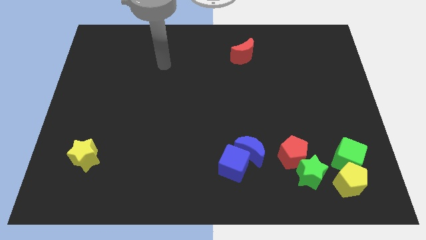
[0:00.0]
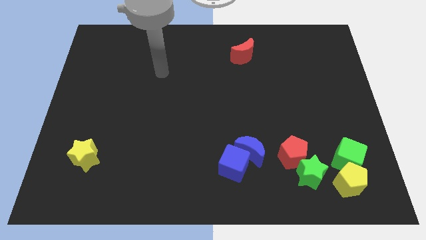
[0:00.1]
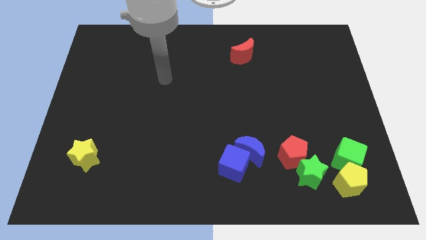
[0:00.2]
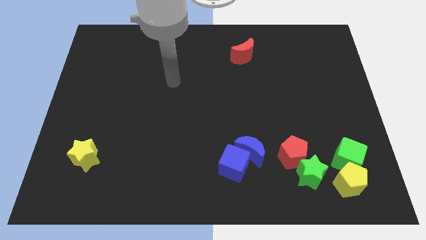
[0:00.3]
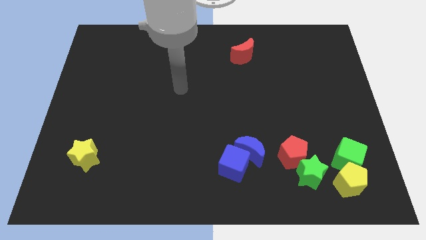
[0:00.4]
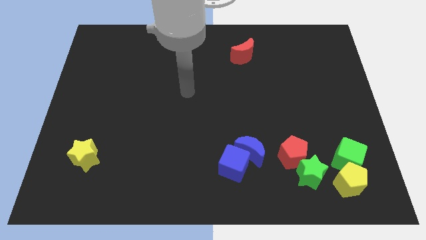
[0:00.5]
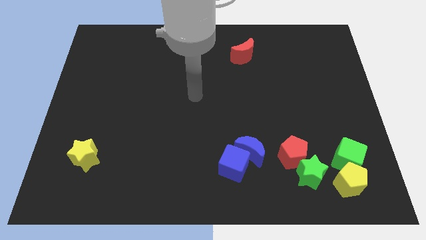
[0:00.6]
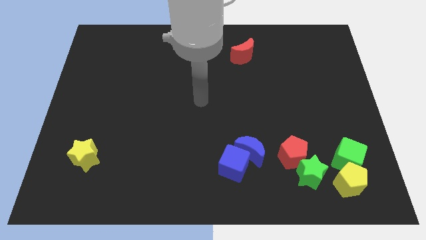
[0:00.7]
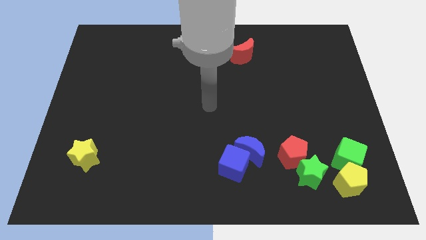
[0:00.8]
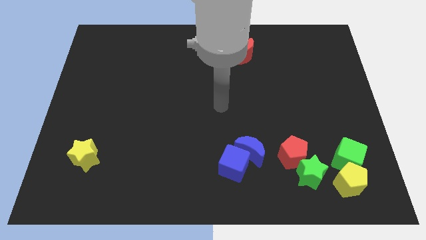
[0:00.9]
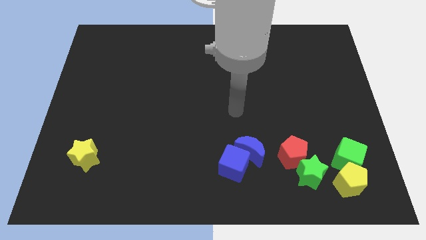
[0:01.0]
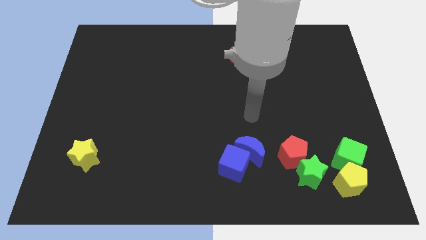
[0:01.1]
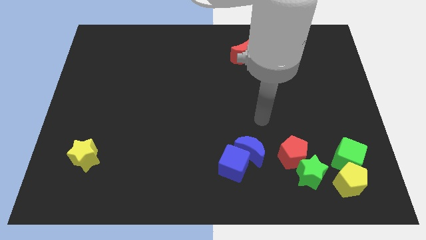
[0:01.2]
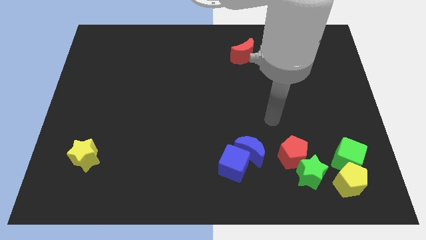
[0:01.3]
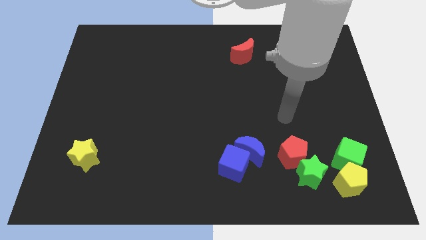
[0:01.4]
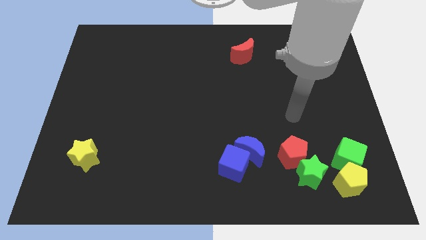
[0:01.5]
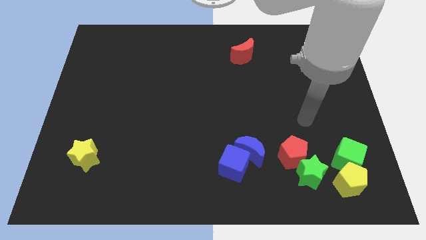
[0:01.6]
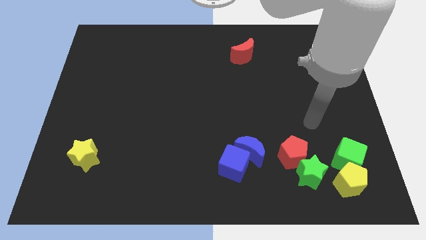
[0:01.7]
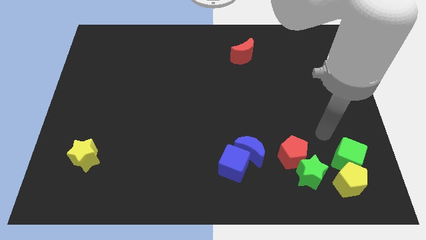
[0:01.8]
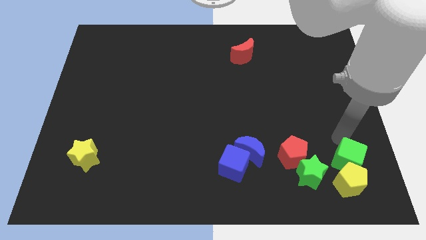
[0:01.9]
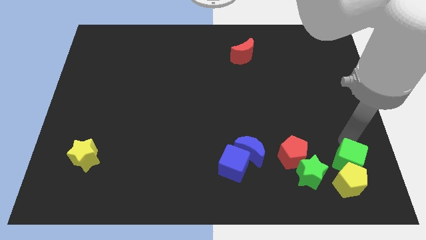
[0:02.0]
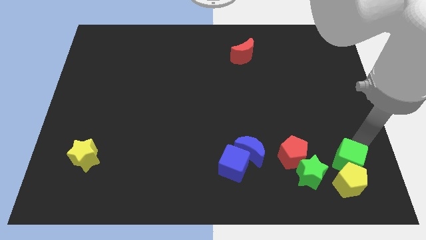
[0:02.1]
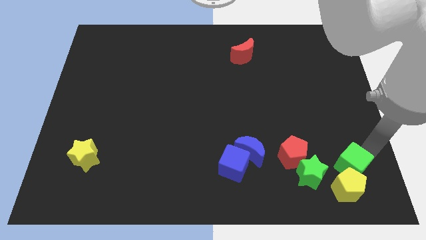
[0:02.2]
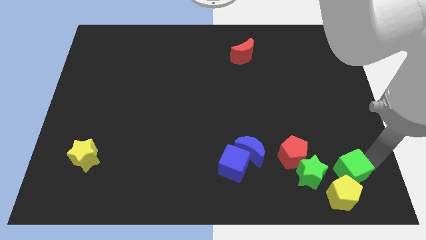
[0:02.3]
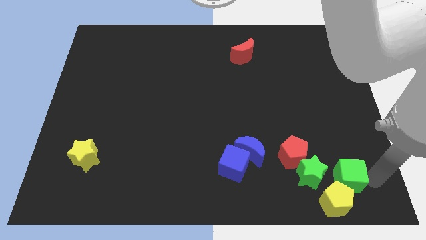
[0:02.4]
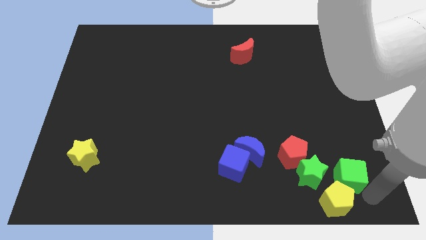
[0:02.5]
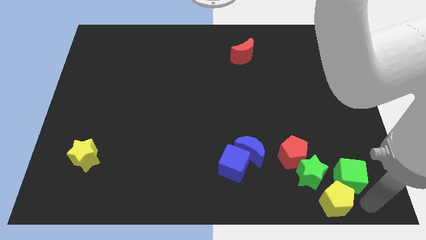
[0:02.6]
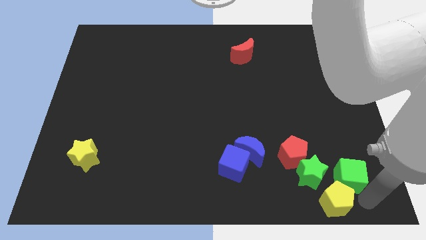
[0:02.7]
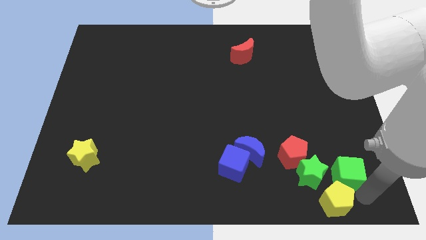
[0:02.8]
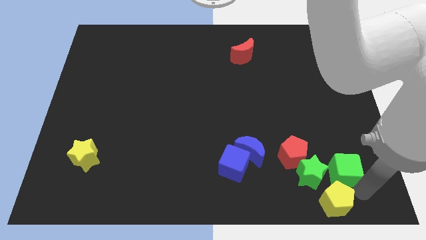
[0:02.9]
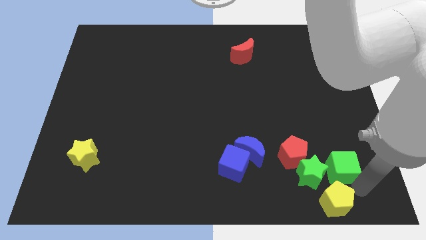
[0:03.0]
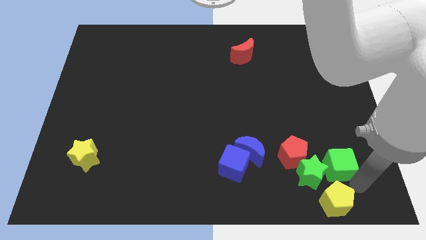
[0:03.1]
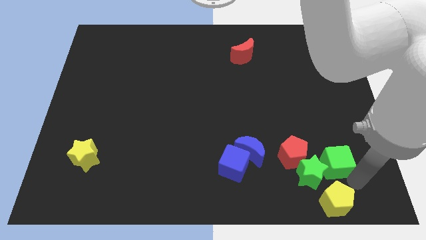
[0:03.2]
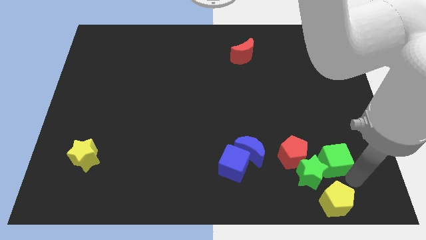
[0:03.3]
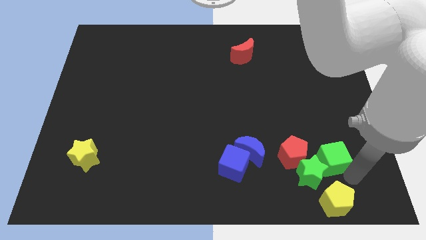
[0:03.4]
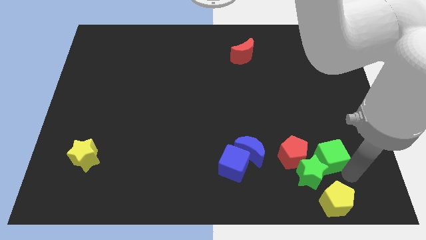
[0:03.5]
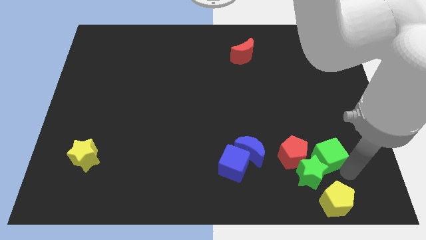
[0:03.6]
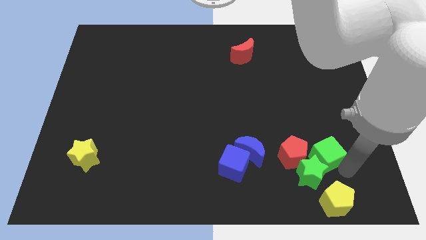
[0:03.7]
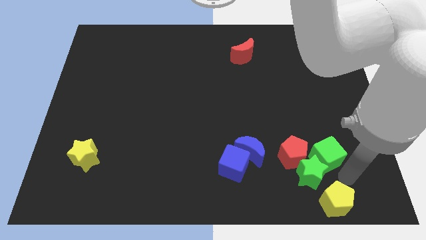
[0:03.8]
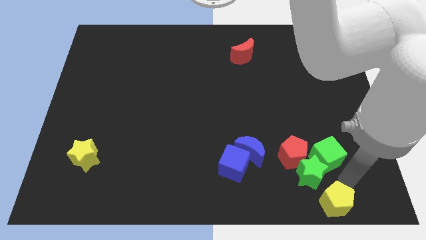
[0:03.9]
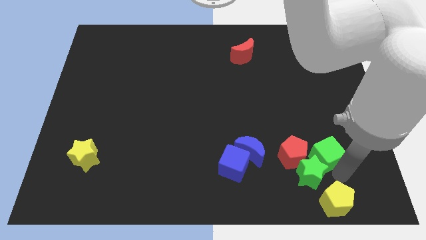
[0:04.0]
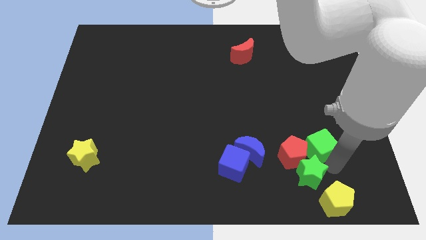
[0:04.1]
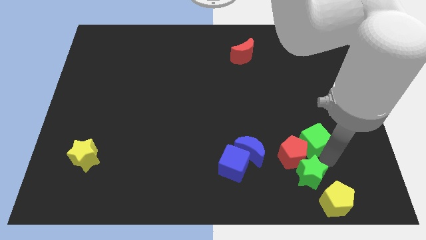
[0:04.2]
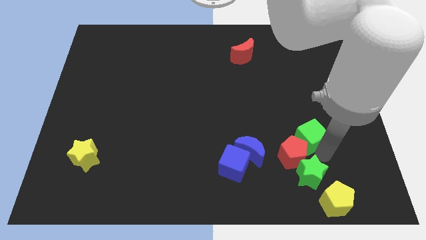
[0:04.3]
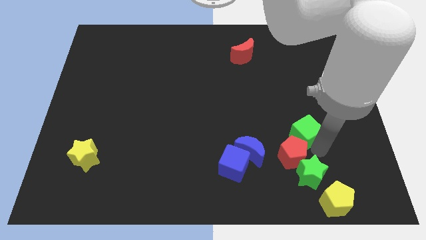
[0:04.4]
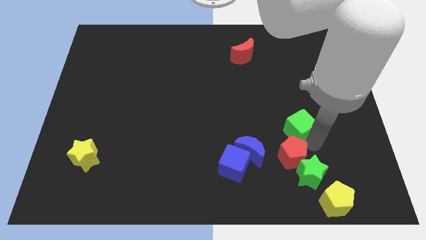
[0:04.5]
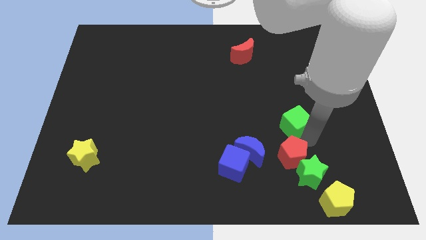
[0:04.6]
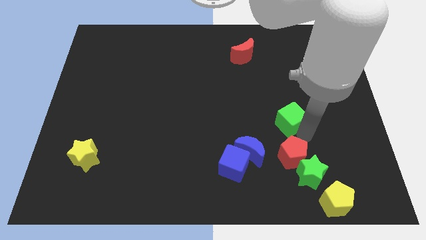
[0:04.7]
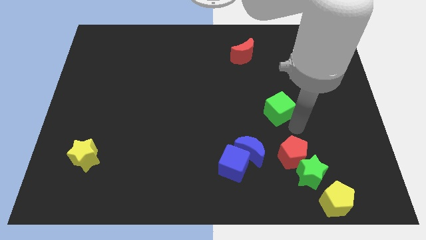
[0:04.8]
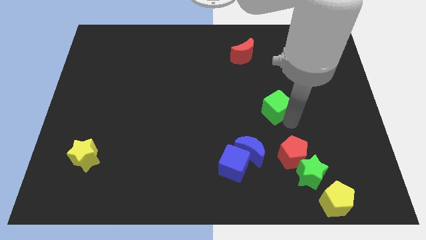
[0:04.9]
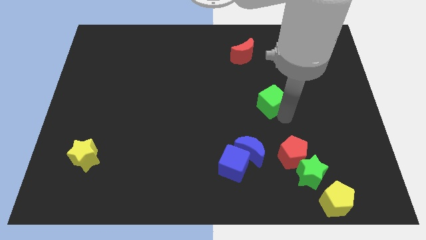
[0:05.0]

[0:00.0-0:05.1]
slide the green cube diagonally up and left

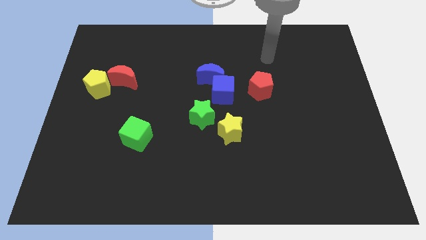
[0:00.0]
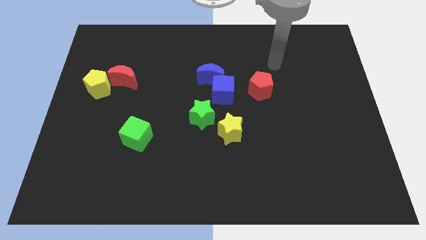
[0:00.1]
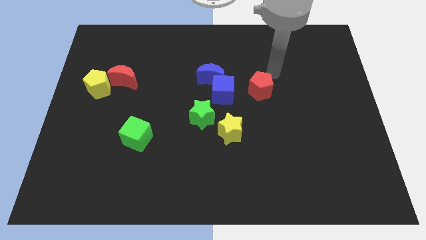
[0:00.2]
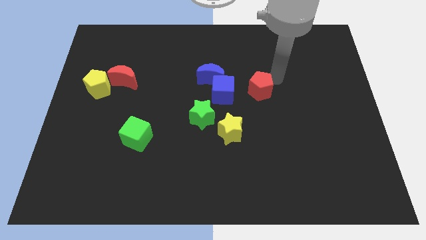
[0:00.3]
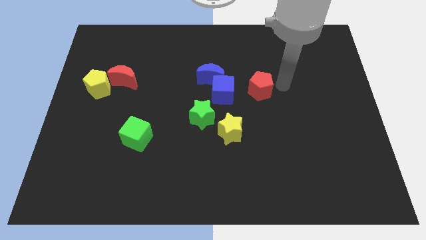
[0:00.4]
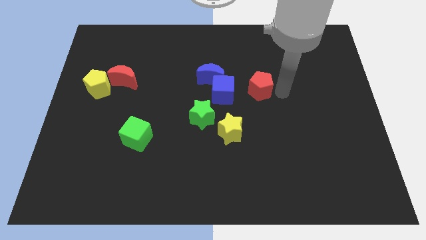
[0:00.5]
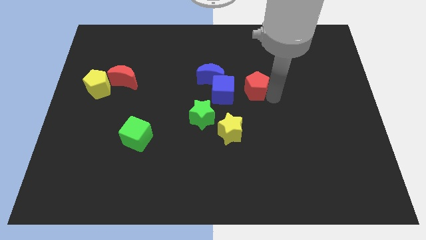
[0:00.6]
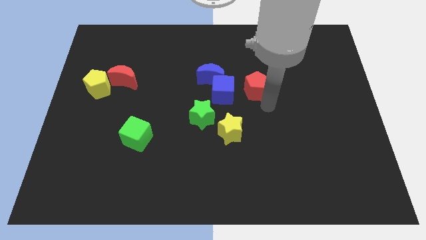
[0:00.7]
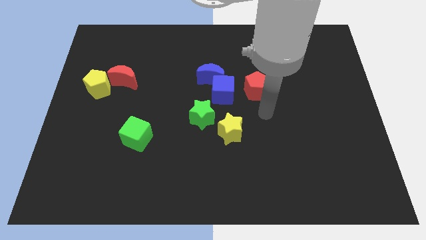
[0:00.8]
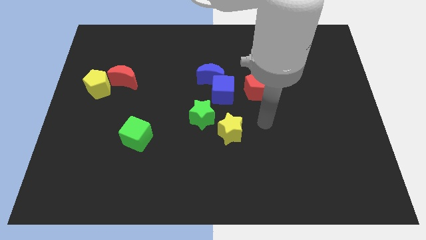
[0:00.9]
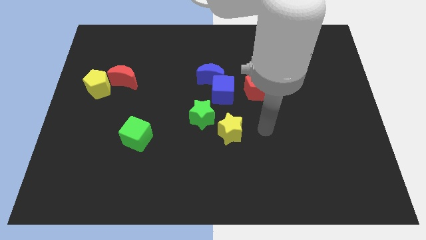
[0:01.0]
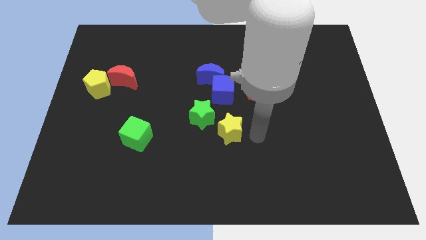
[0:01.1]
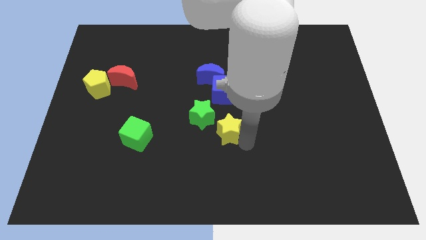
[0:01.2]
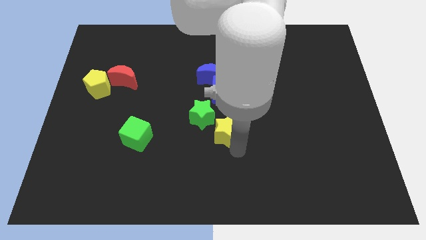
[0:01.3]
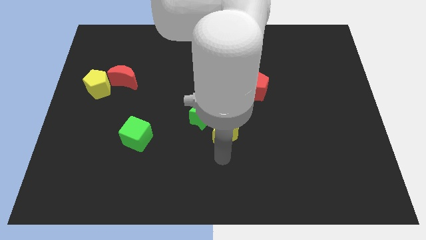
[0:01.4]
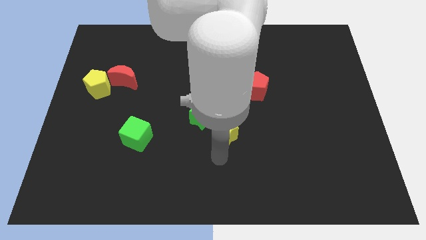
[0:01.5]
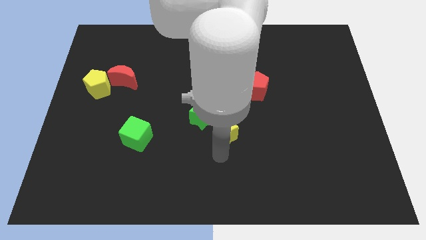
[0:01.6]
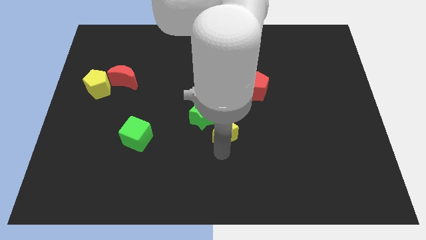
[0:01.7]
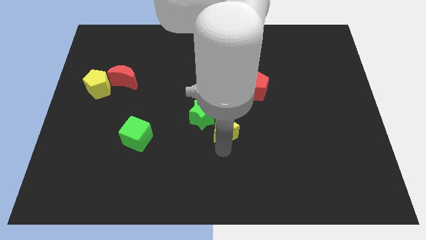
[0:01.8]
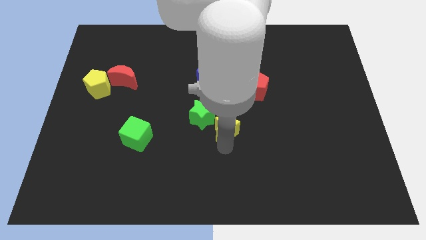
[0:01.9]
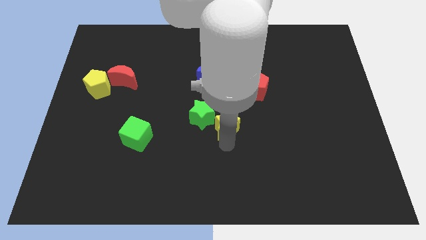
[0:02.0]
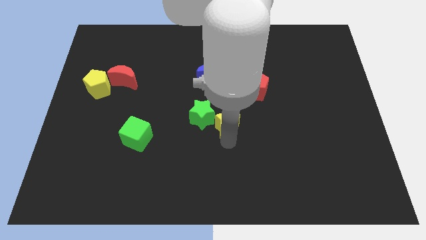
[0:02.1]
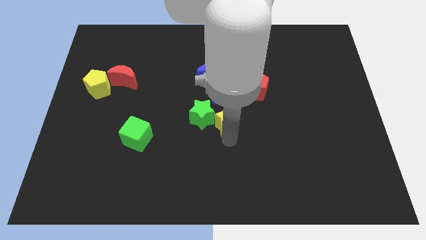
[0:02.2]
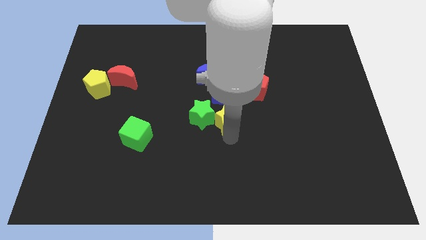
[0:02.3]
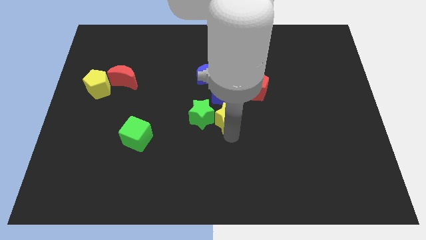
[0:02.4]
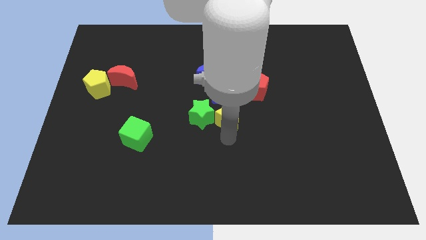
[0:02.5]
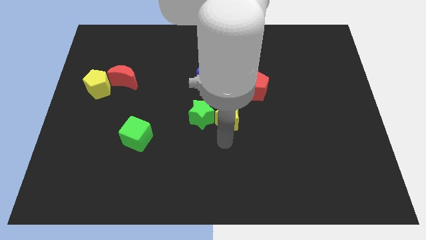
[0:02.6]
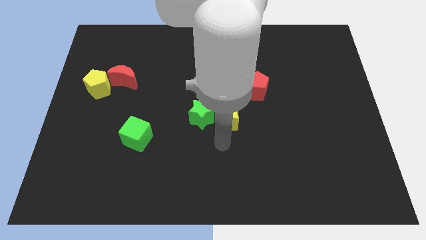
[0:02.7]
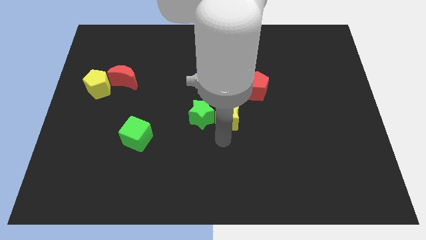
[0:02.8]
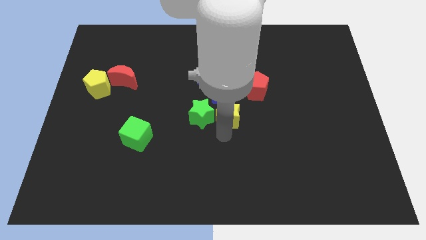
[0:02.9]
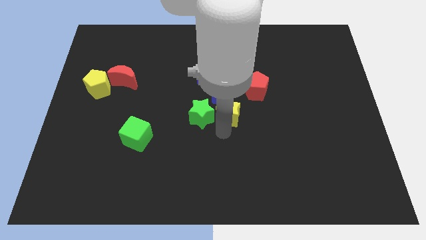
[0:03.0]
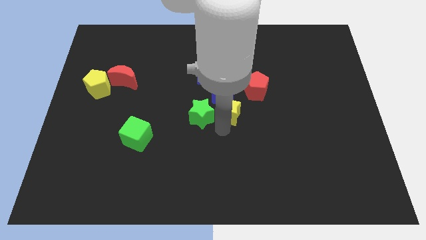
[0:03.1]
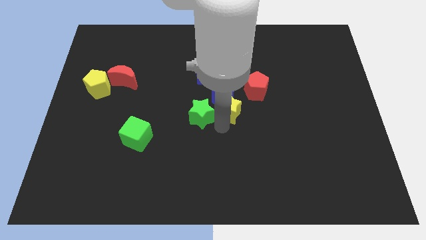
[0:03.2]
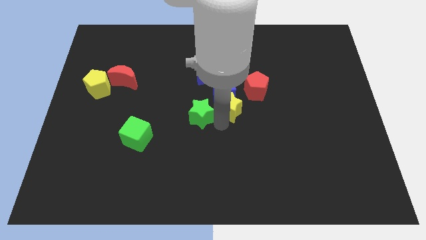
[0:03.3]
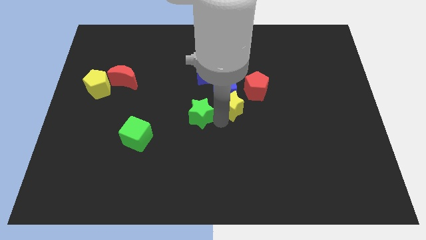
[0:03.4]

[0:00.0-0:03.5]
move the yellow star up somewhat
